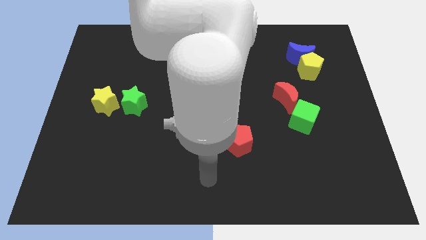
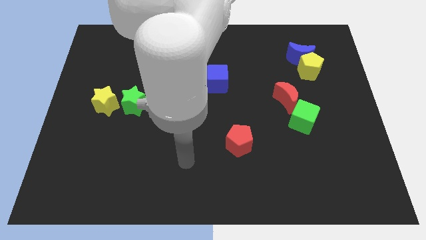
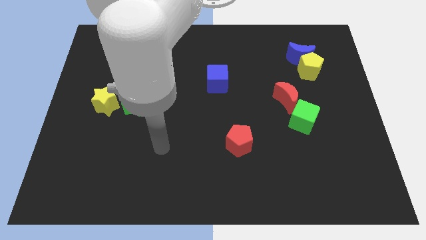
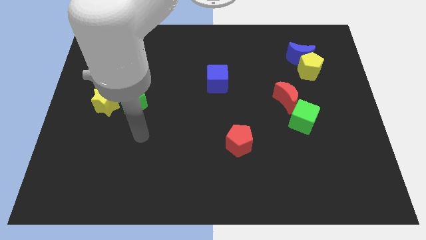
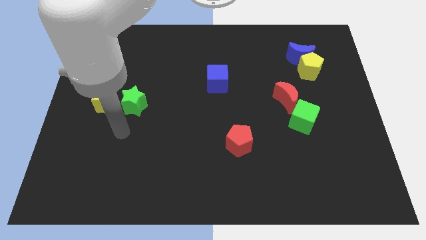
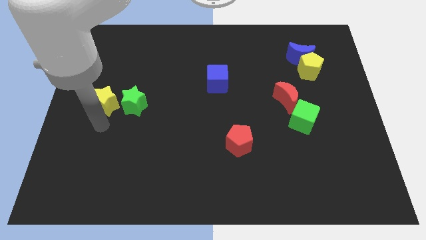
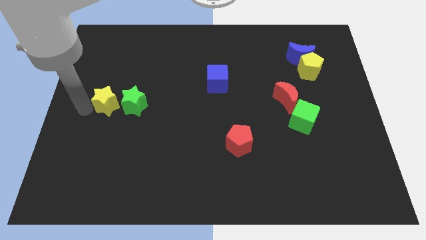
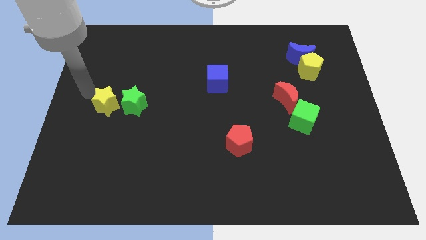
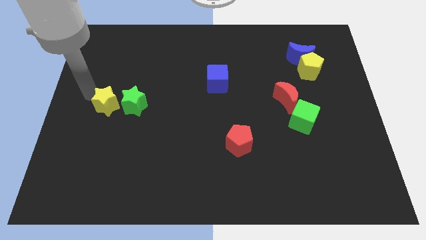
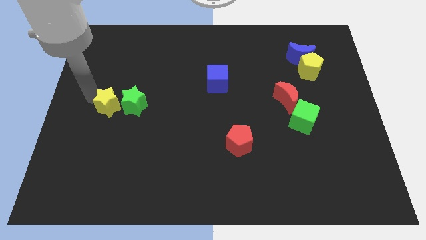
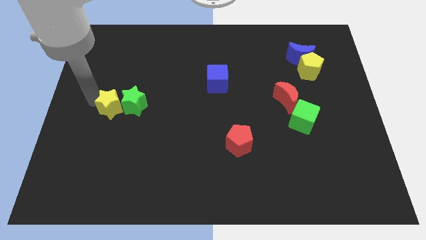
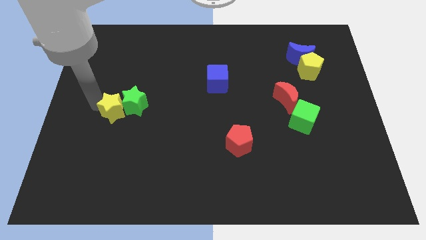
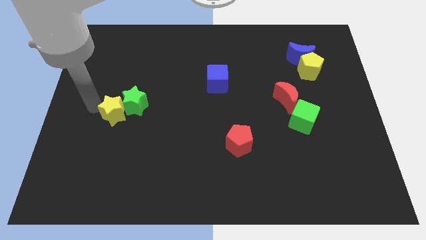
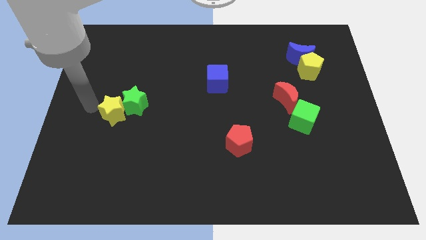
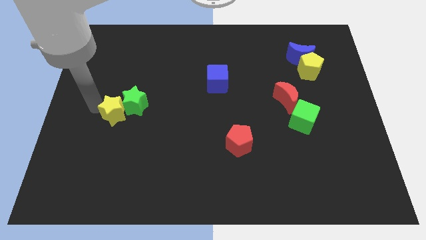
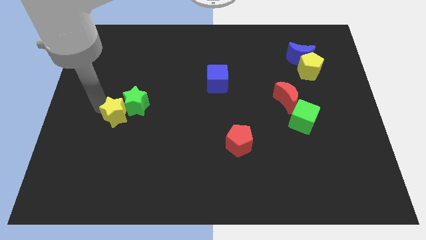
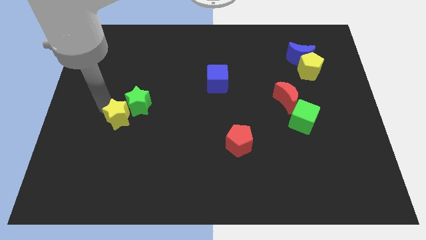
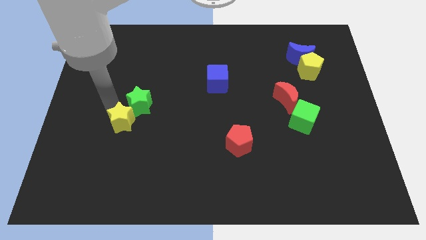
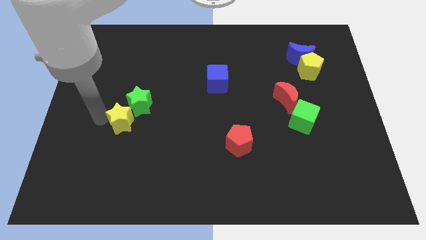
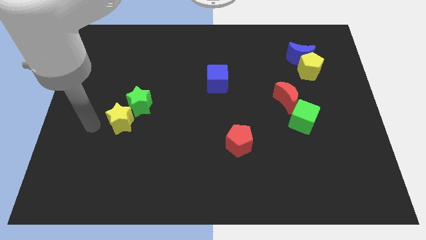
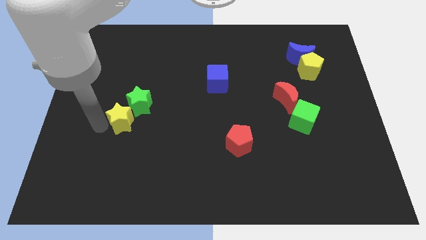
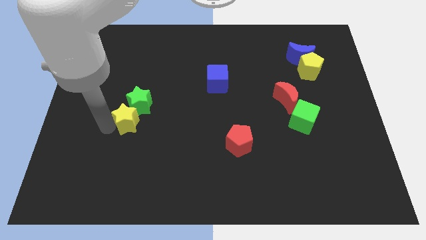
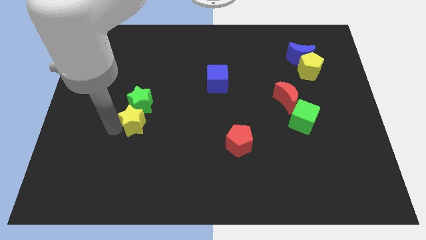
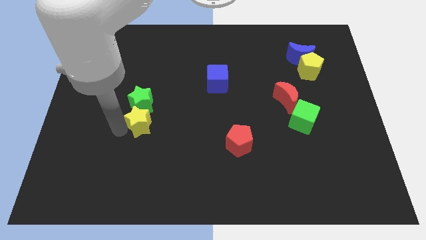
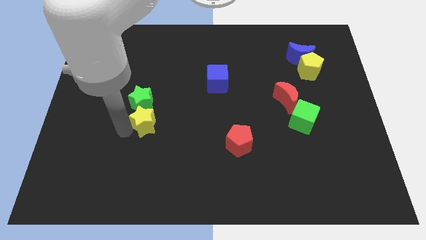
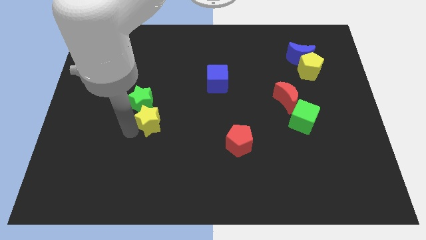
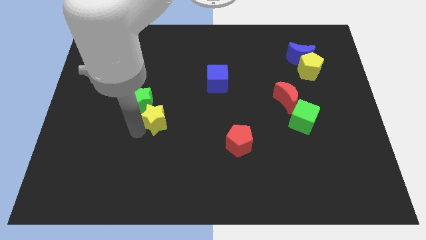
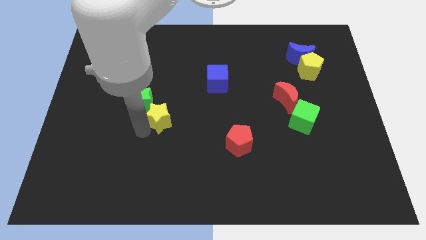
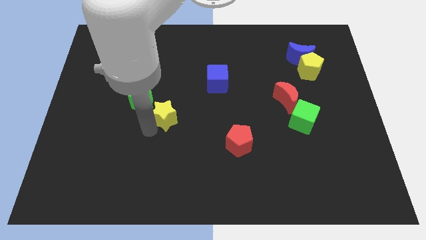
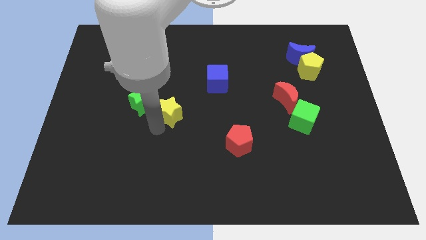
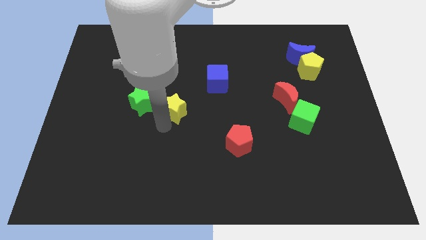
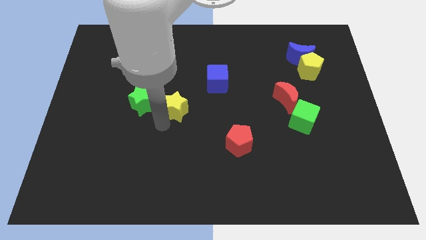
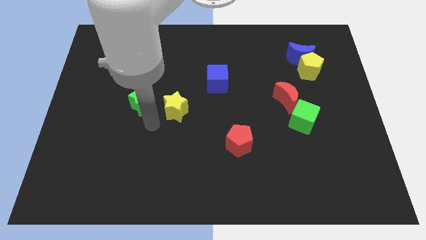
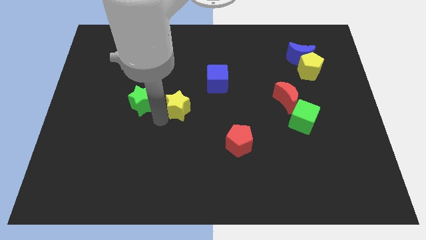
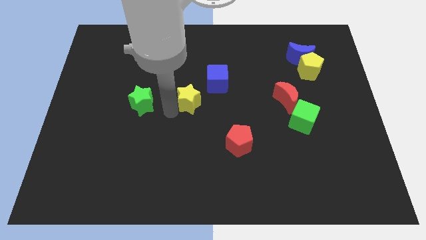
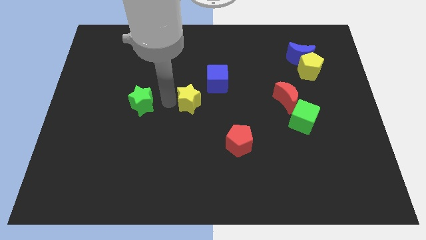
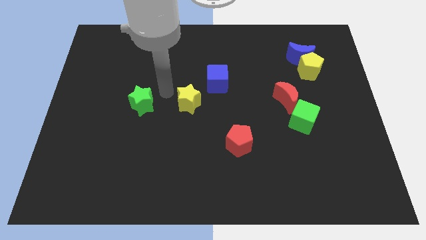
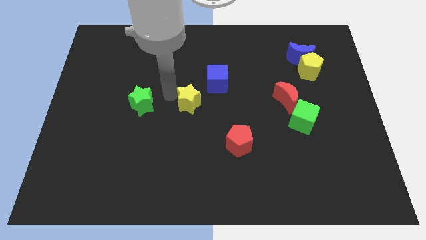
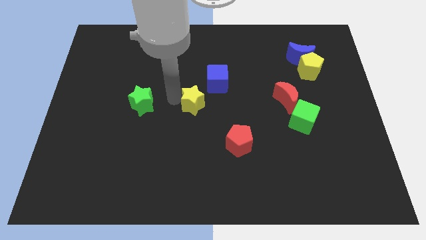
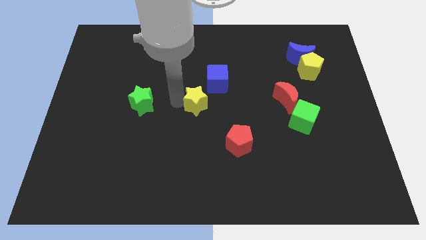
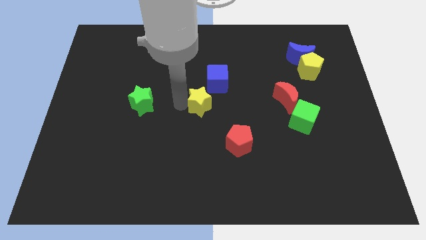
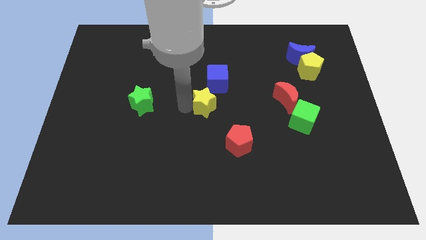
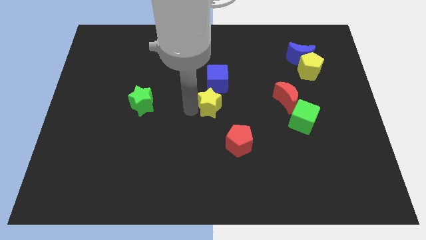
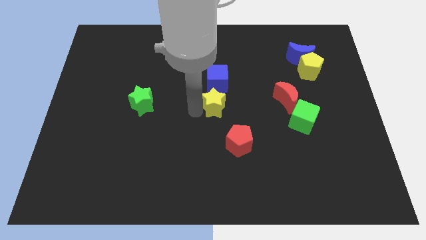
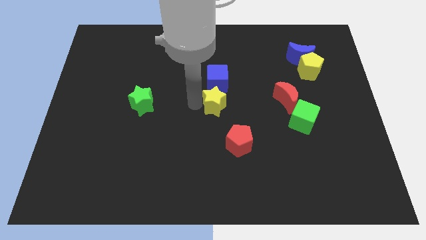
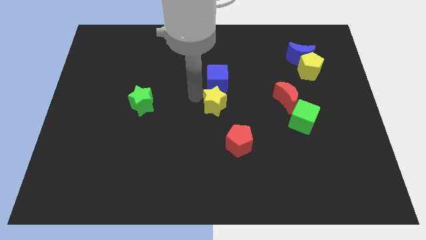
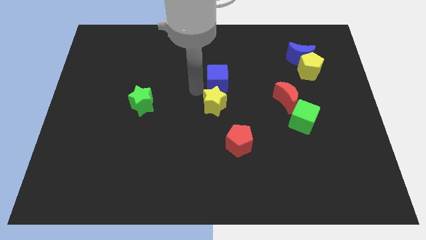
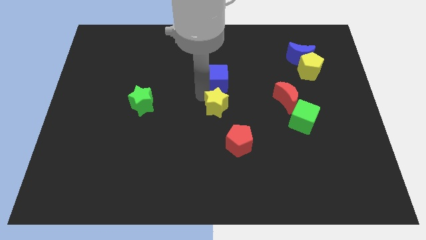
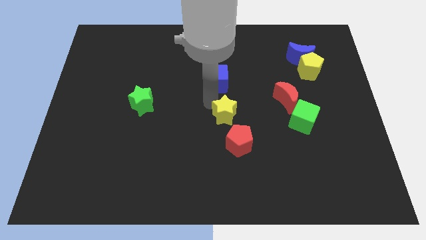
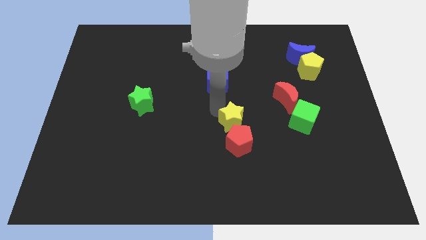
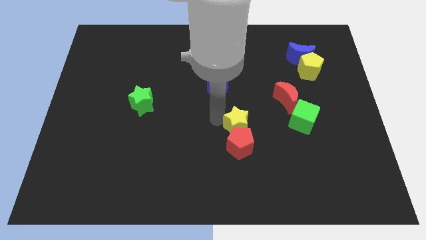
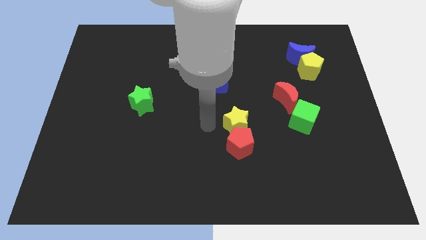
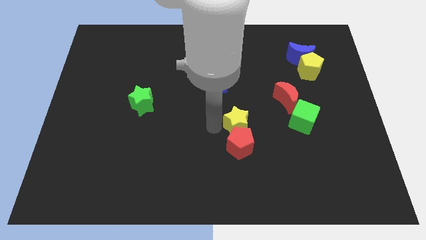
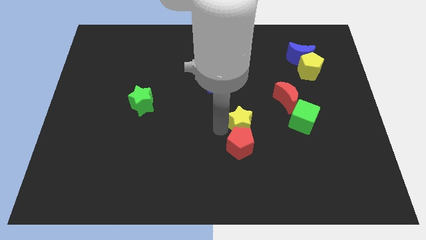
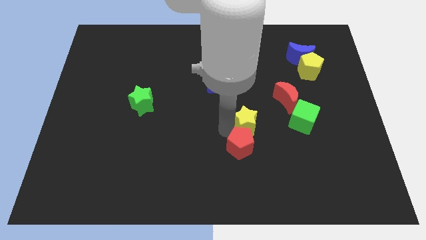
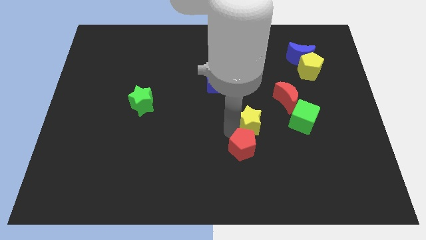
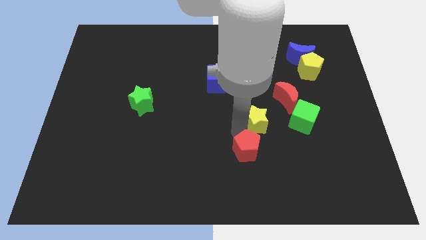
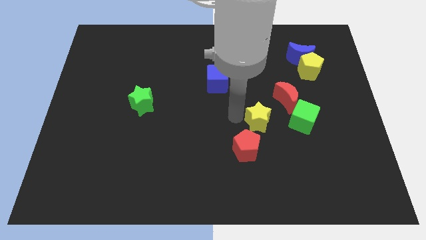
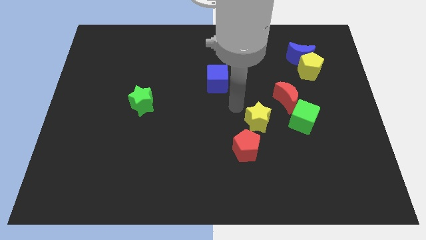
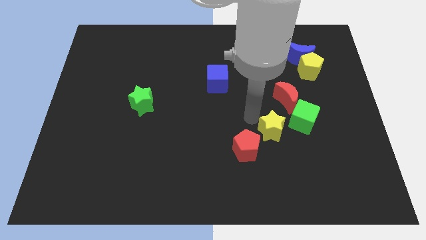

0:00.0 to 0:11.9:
push the yellow star just right of the red pentagon

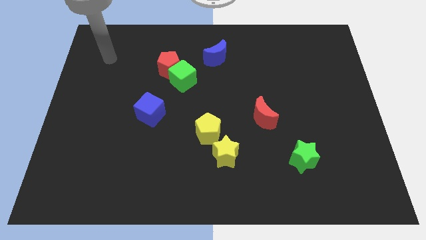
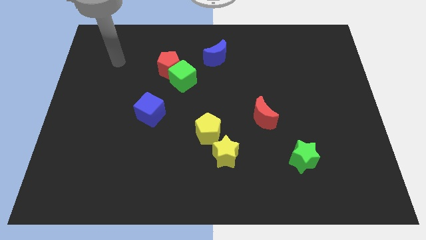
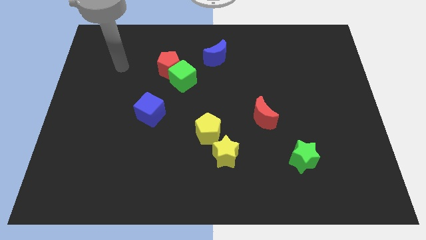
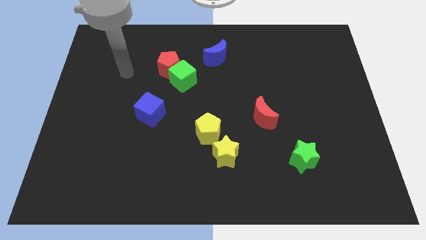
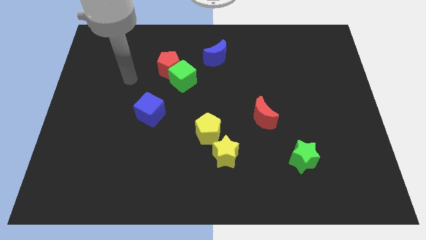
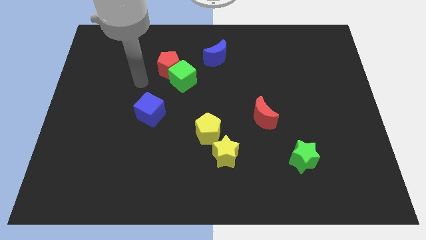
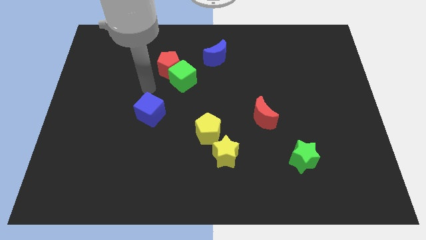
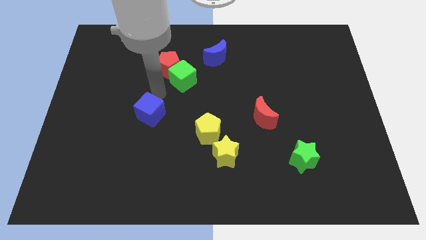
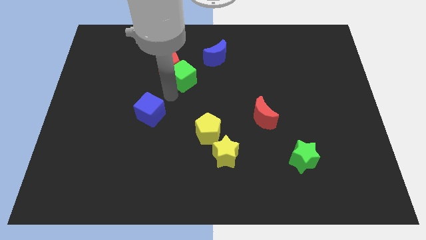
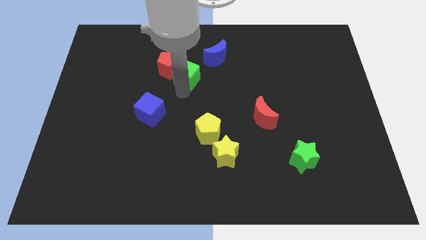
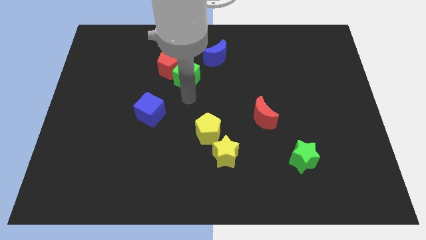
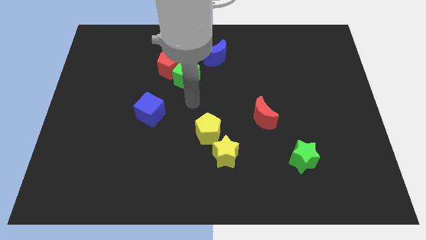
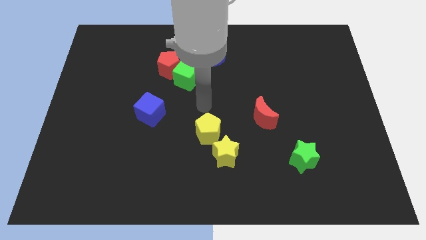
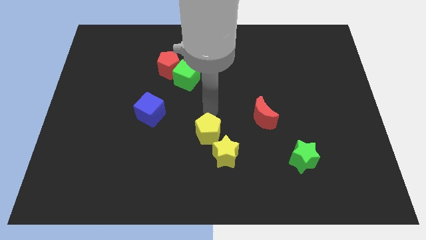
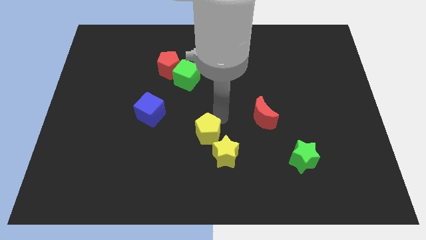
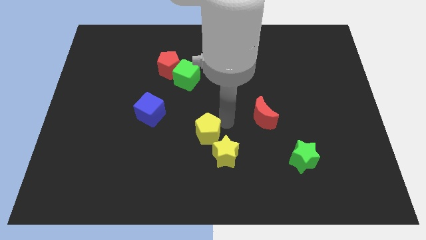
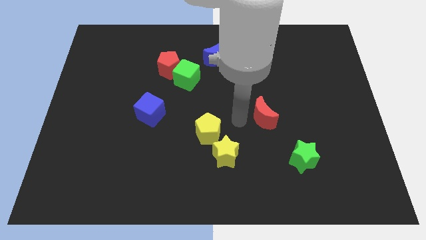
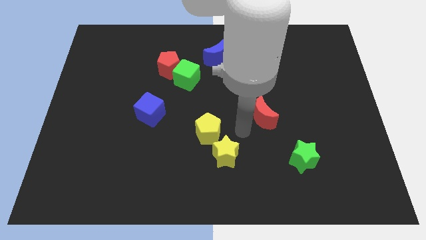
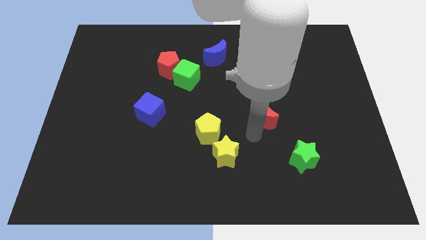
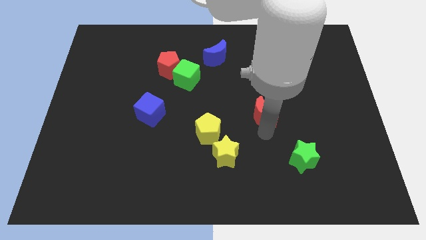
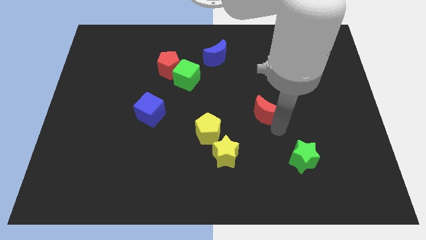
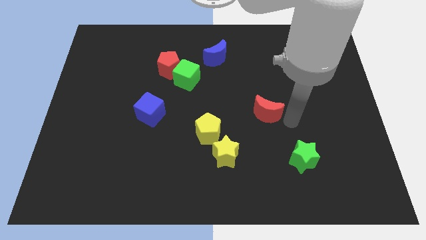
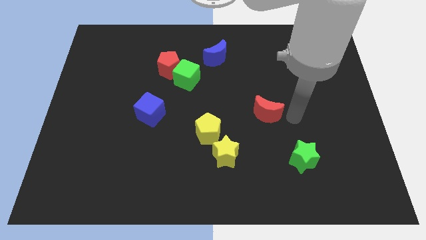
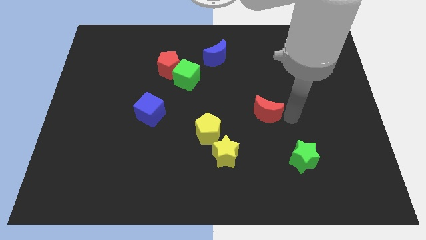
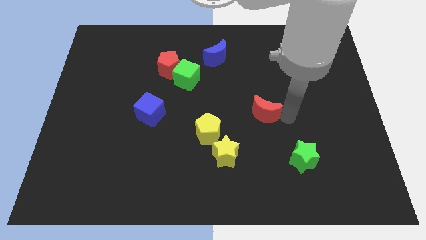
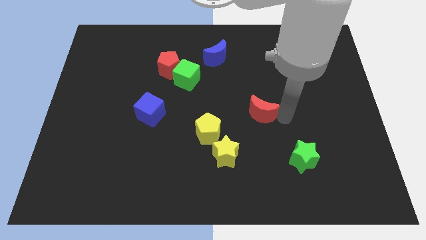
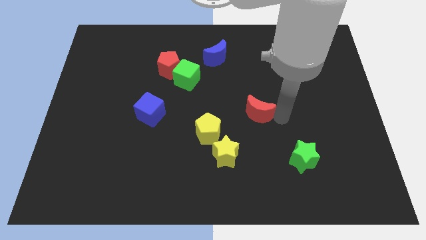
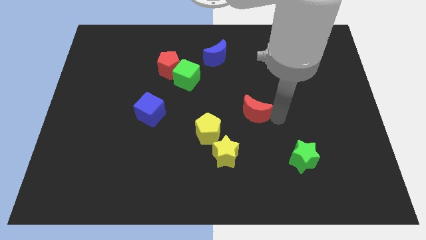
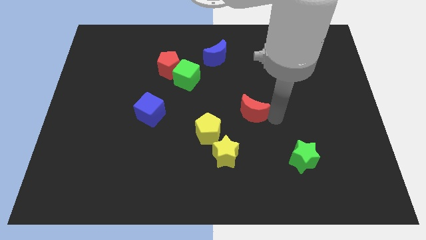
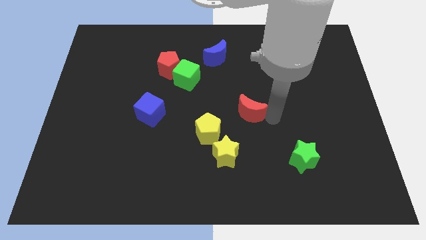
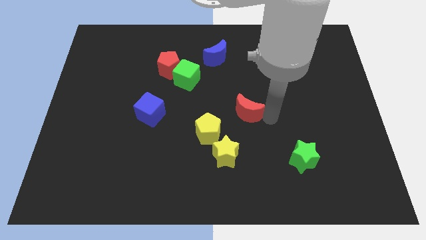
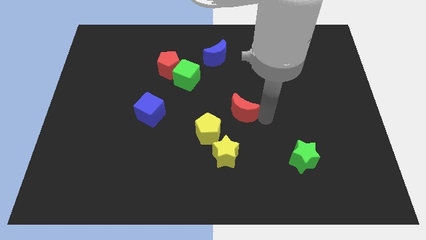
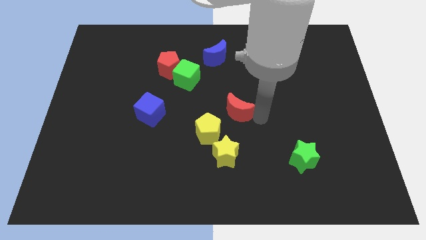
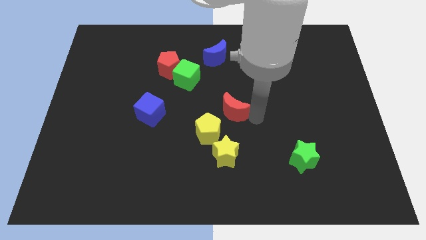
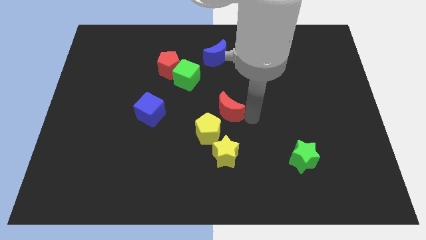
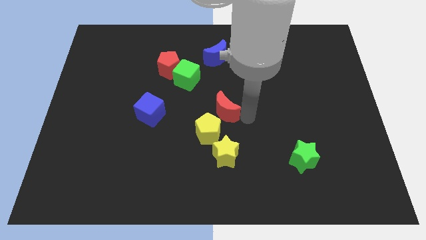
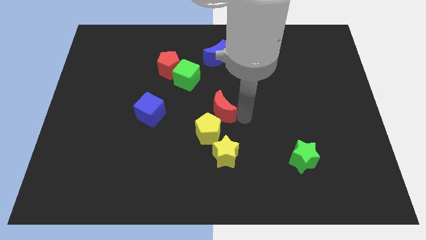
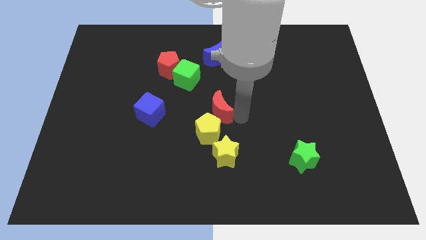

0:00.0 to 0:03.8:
move the red moon to the right side of the blue cube
